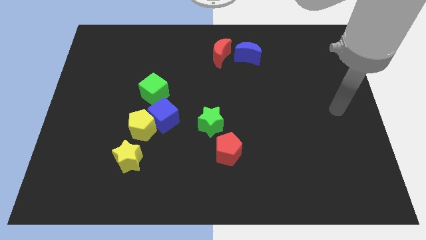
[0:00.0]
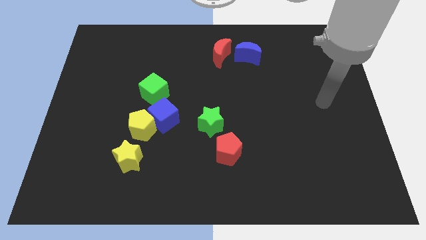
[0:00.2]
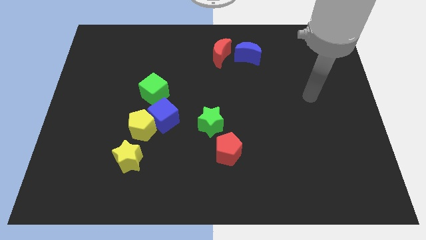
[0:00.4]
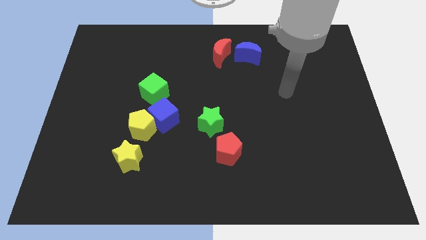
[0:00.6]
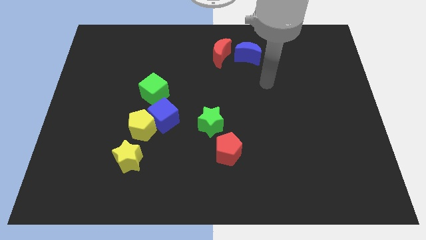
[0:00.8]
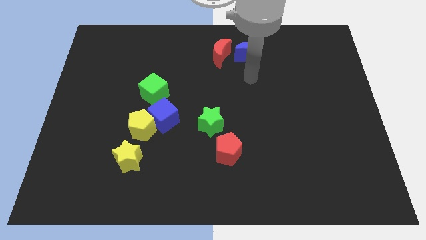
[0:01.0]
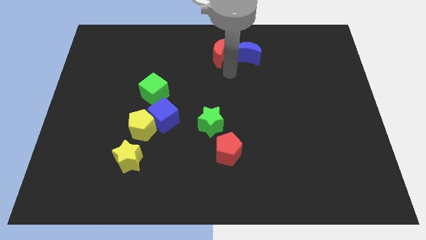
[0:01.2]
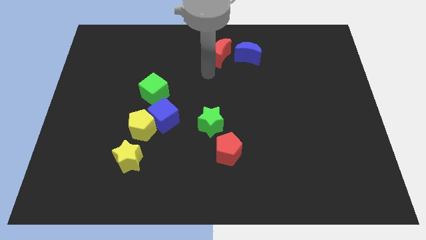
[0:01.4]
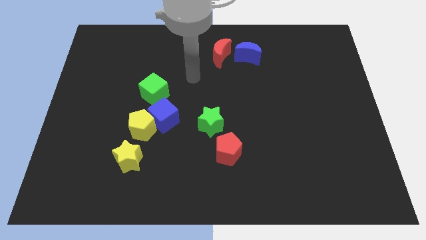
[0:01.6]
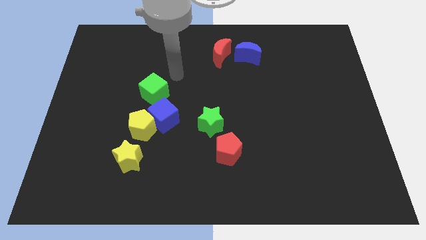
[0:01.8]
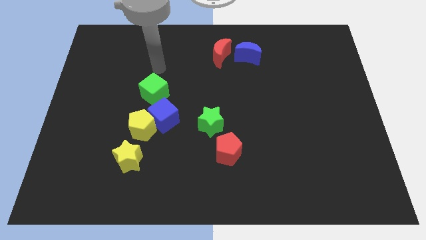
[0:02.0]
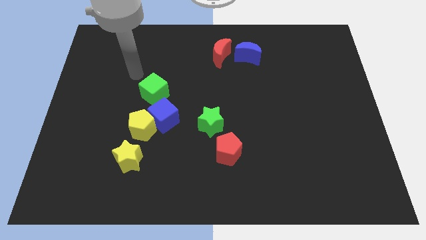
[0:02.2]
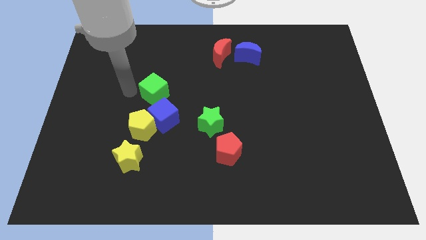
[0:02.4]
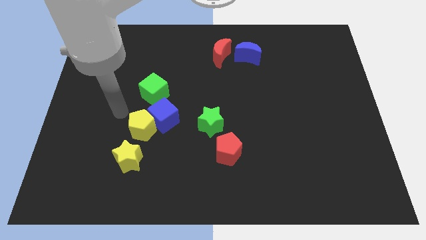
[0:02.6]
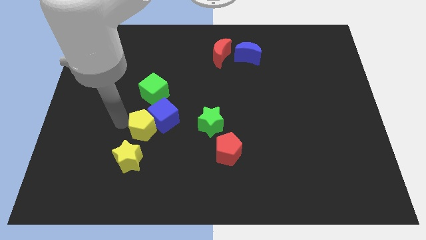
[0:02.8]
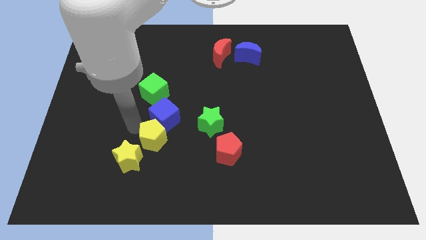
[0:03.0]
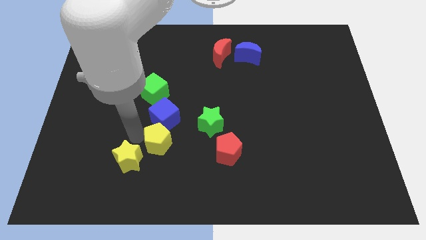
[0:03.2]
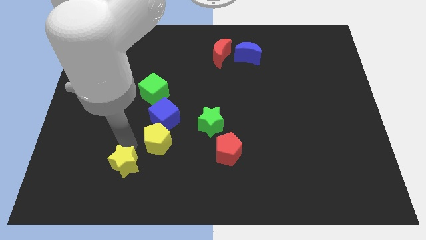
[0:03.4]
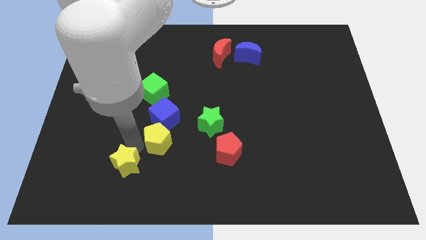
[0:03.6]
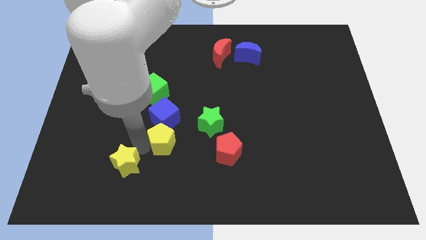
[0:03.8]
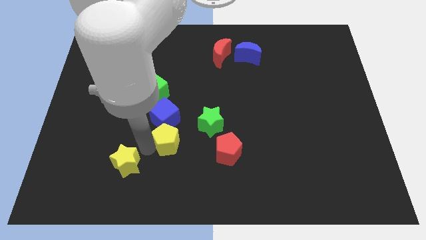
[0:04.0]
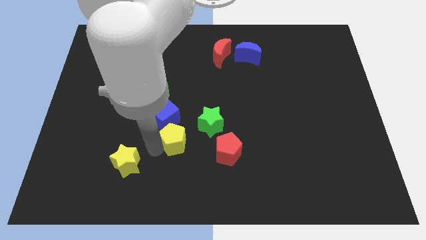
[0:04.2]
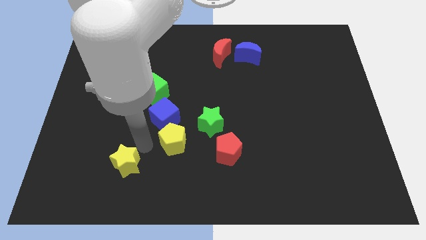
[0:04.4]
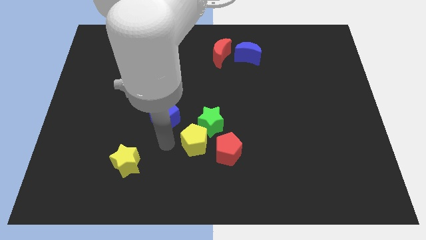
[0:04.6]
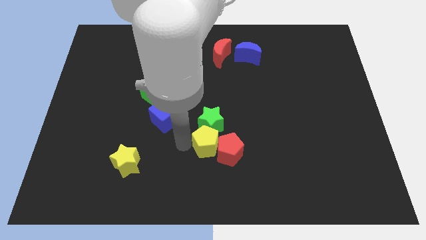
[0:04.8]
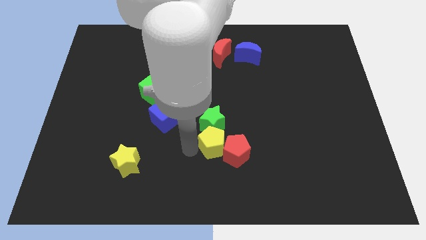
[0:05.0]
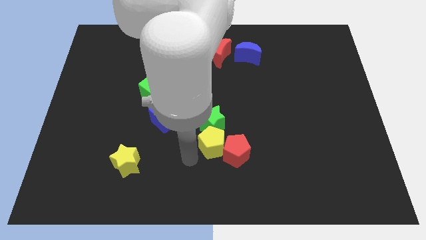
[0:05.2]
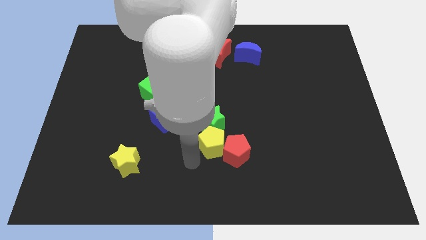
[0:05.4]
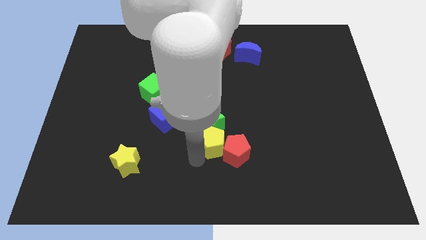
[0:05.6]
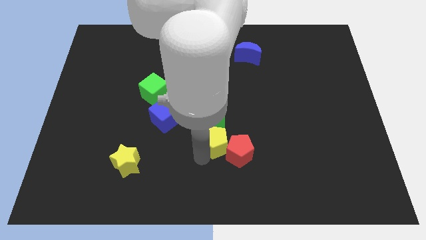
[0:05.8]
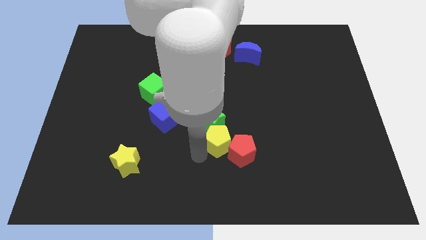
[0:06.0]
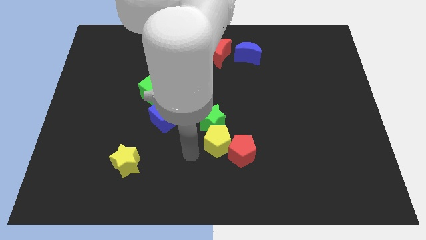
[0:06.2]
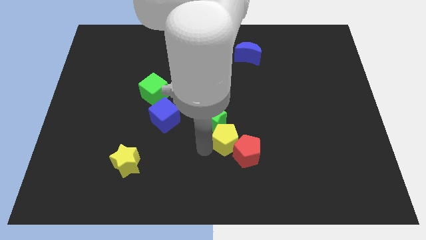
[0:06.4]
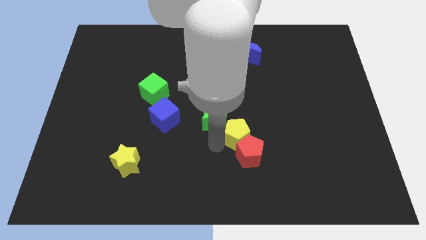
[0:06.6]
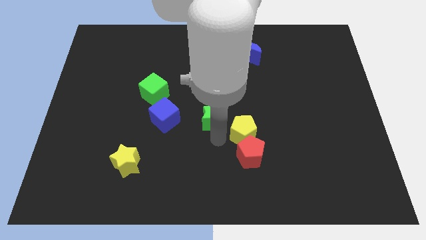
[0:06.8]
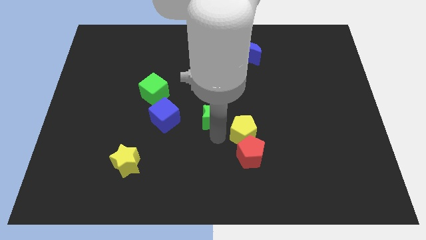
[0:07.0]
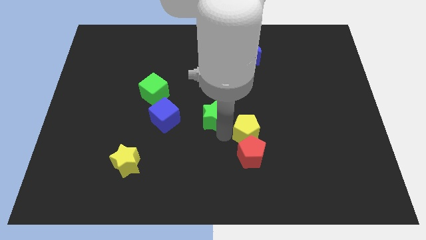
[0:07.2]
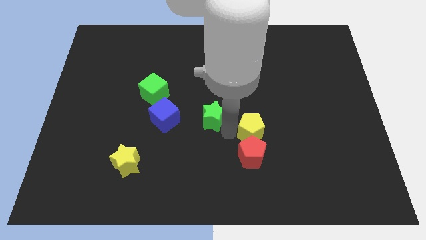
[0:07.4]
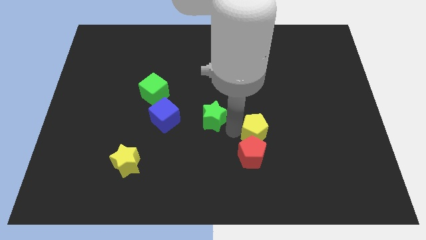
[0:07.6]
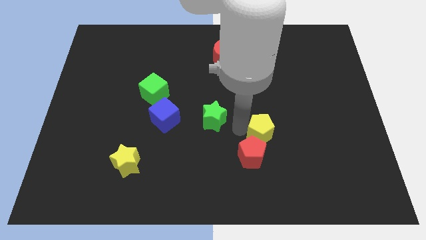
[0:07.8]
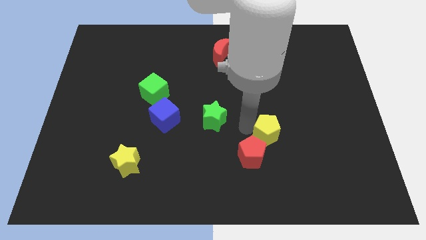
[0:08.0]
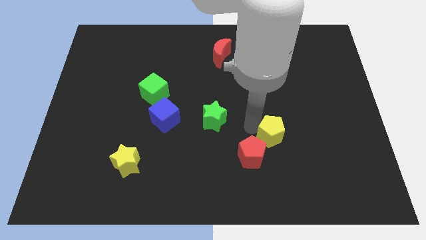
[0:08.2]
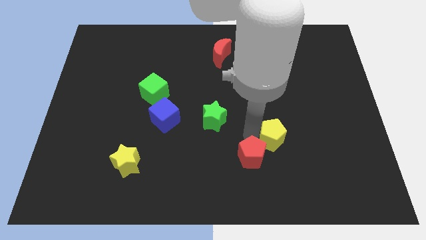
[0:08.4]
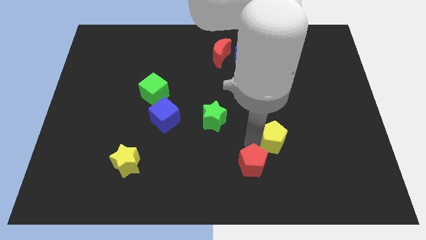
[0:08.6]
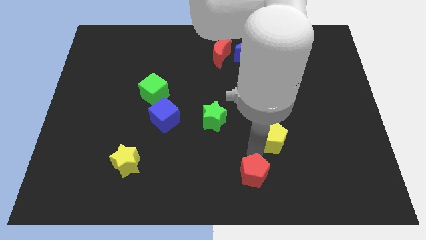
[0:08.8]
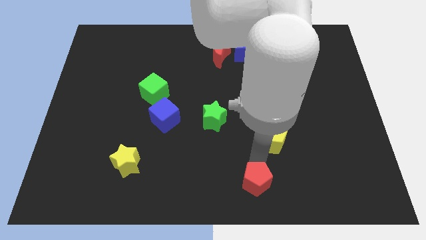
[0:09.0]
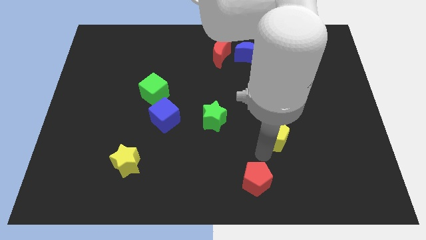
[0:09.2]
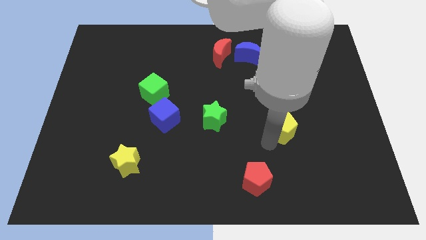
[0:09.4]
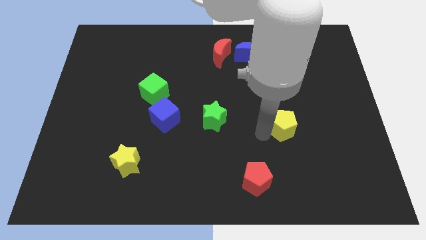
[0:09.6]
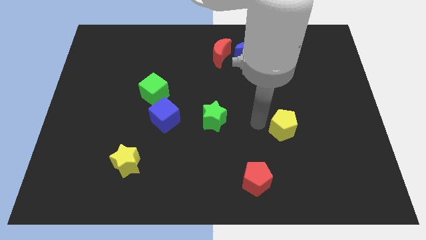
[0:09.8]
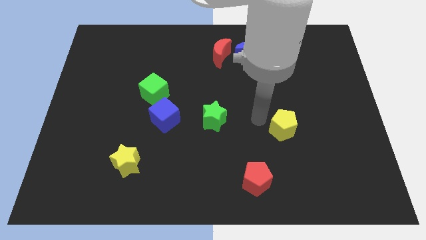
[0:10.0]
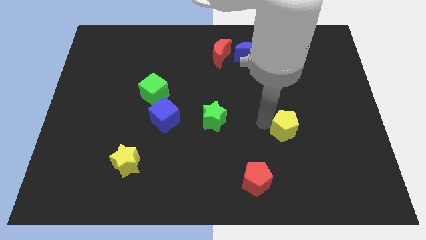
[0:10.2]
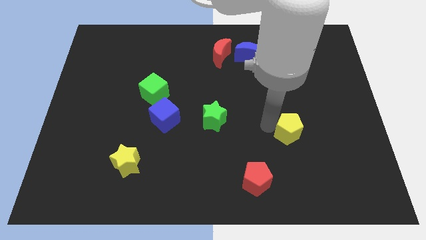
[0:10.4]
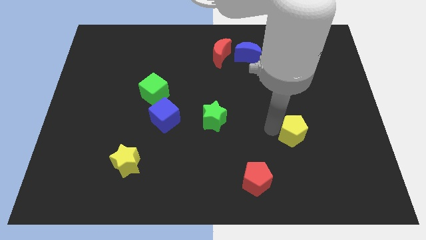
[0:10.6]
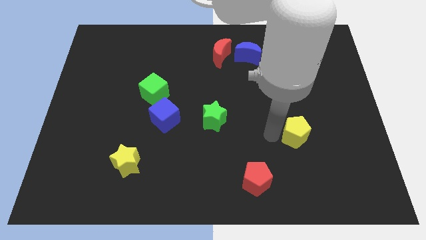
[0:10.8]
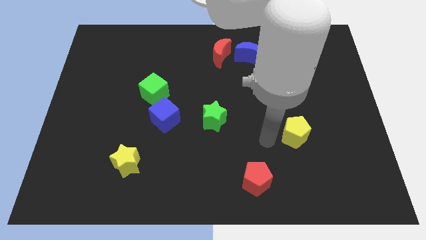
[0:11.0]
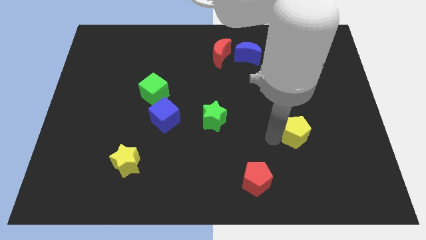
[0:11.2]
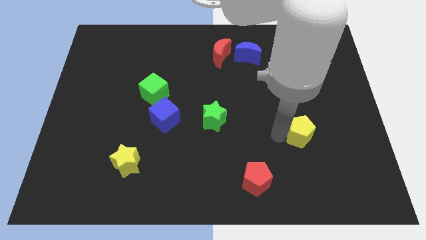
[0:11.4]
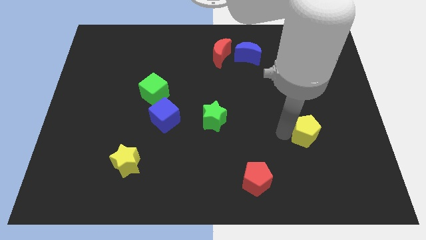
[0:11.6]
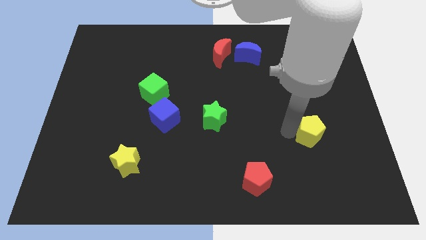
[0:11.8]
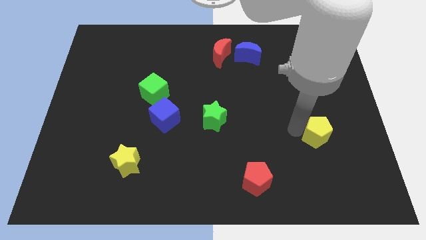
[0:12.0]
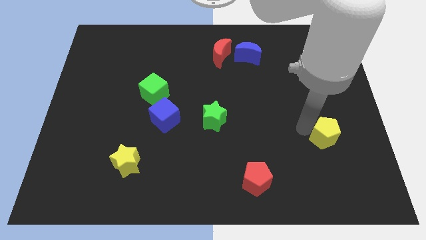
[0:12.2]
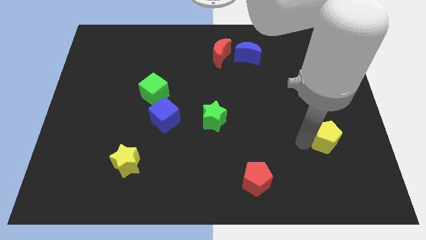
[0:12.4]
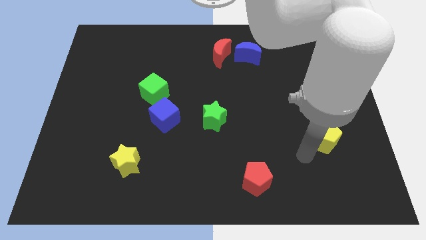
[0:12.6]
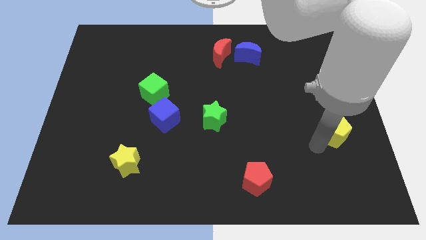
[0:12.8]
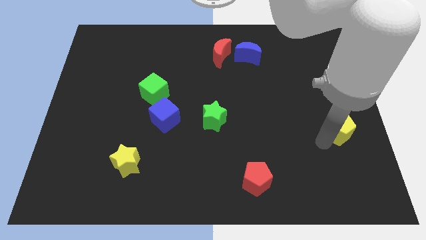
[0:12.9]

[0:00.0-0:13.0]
push the yellow pentagon to the right side of the board
